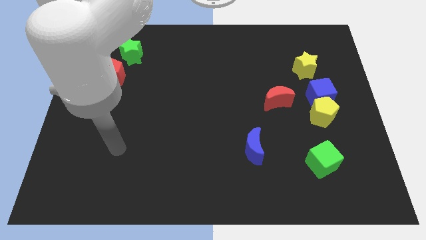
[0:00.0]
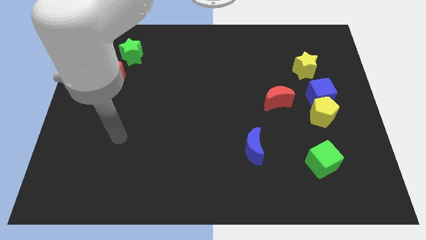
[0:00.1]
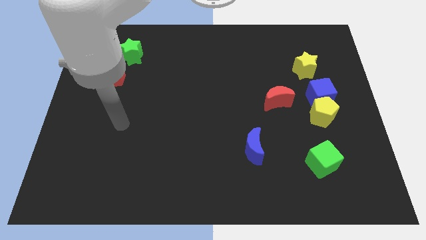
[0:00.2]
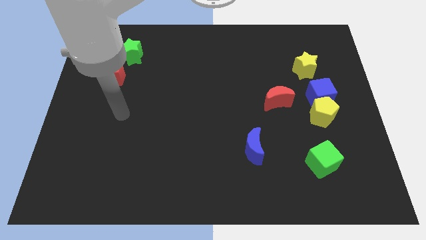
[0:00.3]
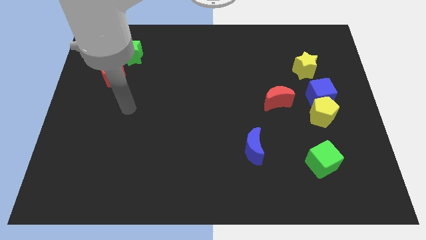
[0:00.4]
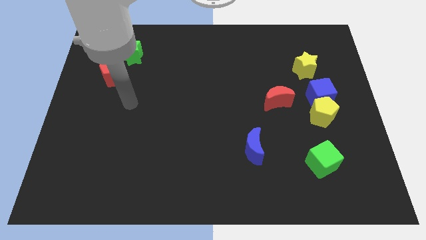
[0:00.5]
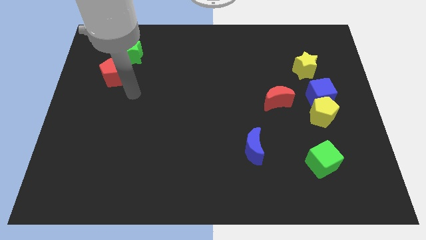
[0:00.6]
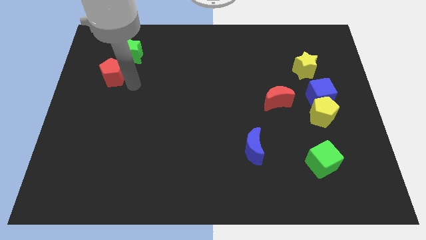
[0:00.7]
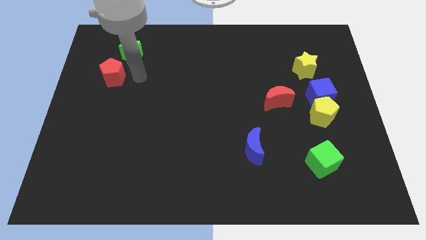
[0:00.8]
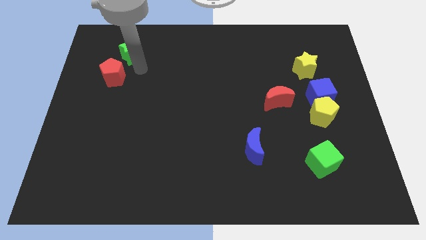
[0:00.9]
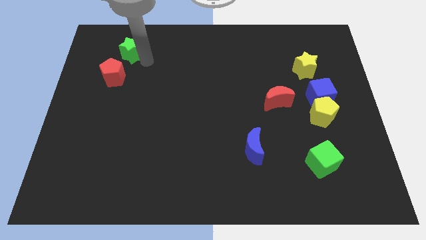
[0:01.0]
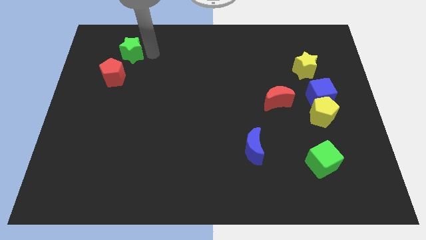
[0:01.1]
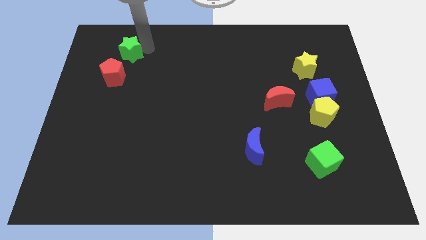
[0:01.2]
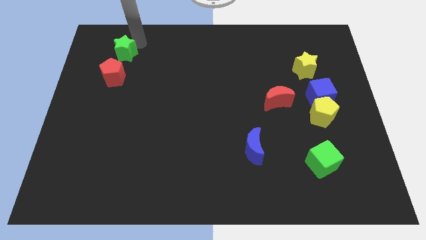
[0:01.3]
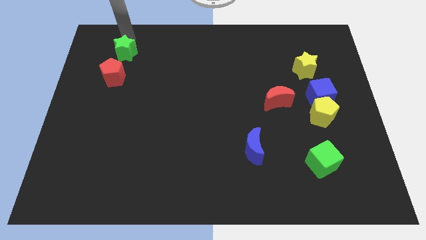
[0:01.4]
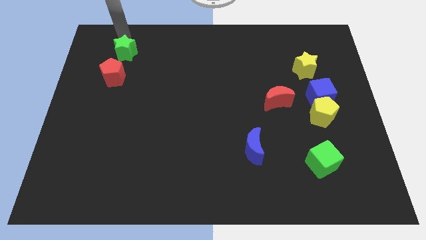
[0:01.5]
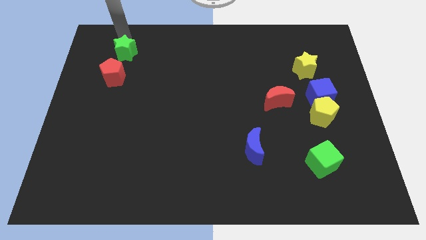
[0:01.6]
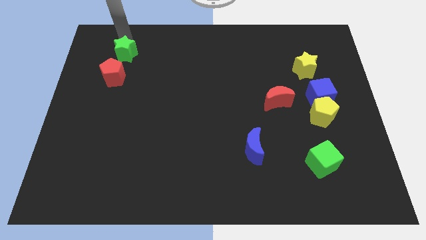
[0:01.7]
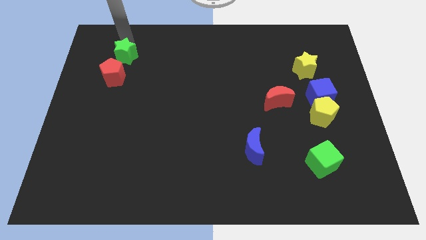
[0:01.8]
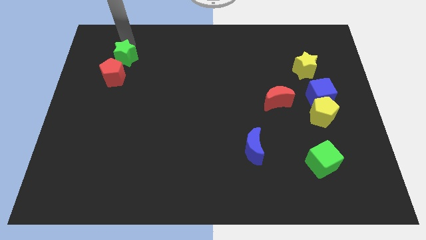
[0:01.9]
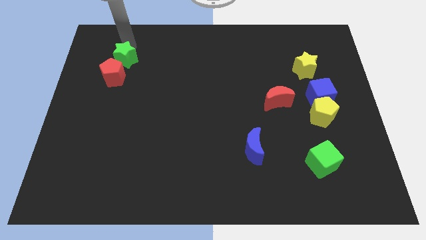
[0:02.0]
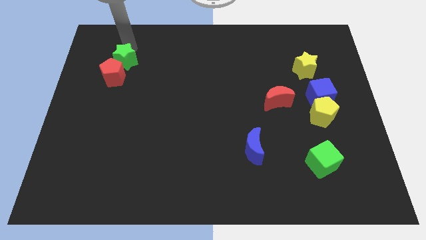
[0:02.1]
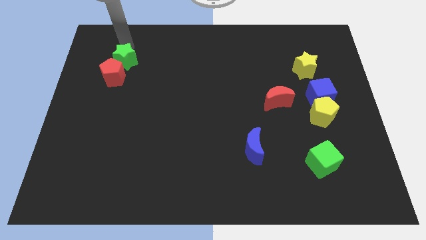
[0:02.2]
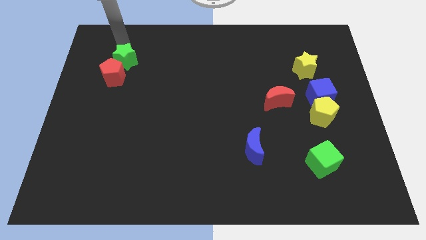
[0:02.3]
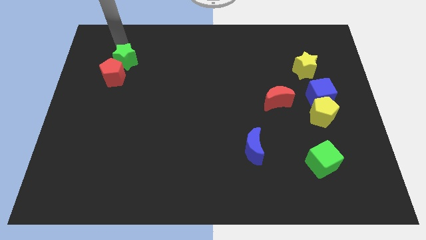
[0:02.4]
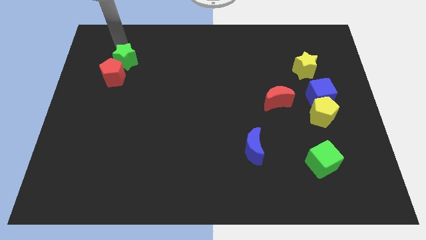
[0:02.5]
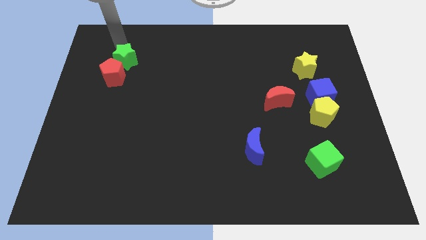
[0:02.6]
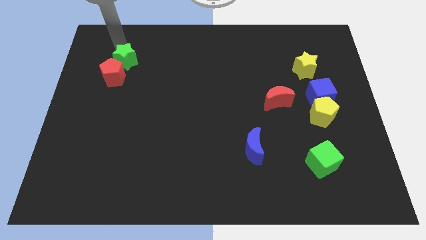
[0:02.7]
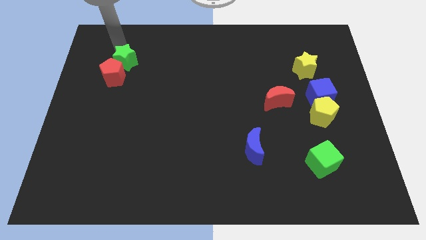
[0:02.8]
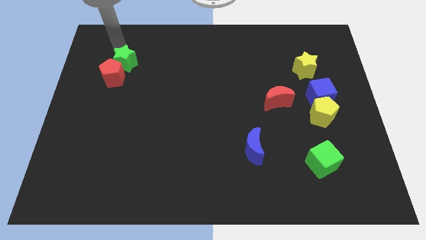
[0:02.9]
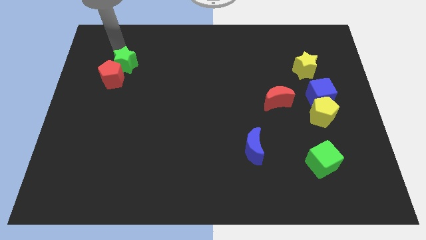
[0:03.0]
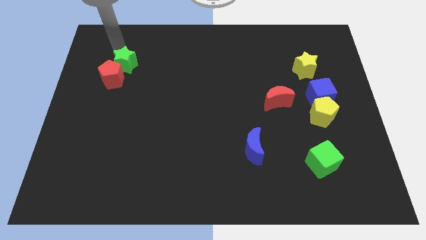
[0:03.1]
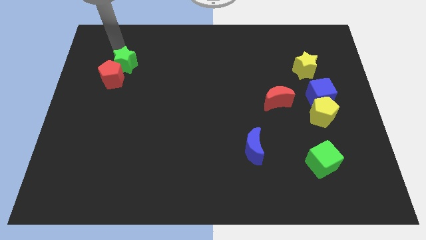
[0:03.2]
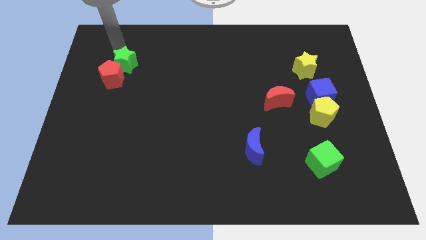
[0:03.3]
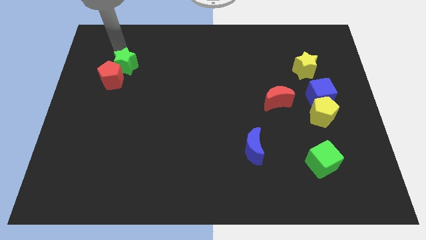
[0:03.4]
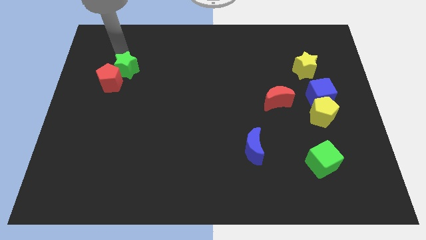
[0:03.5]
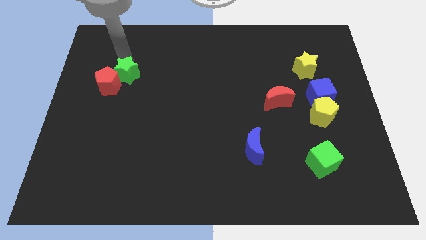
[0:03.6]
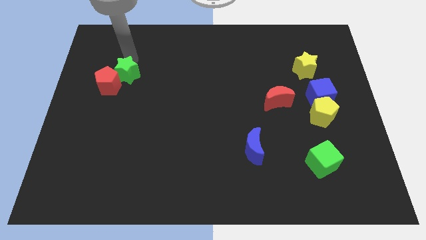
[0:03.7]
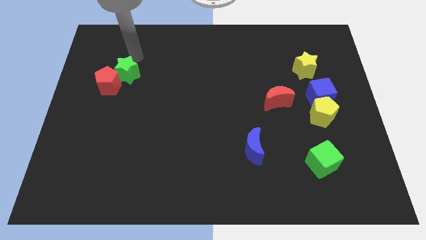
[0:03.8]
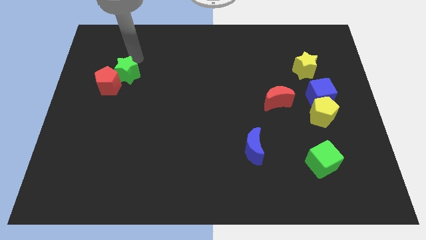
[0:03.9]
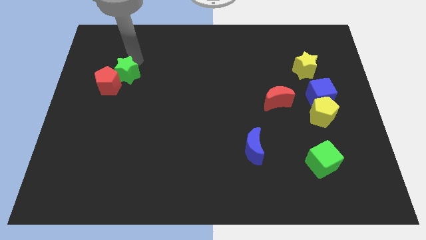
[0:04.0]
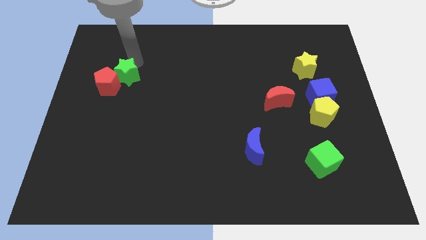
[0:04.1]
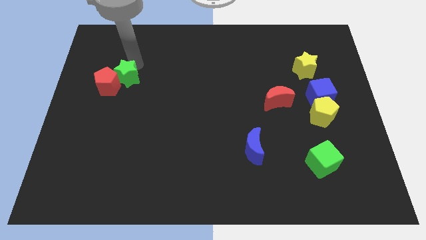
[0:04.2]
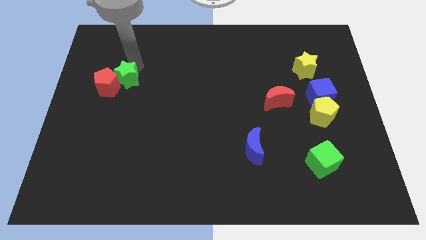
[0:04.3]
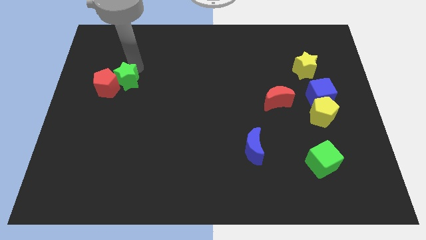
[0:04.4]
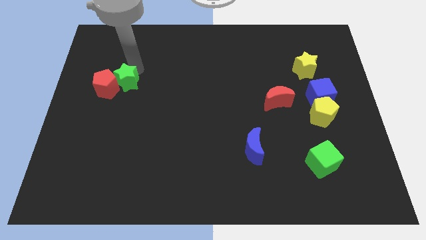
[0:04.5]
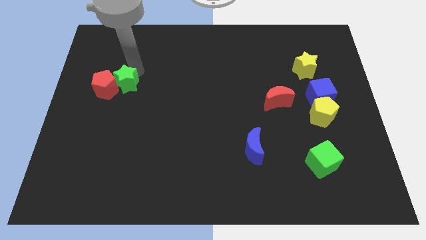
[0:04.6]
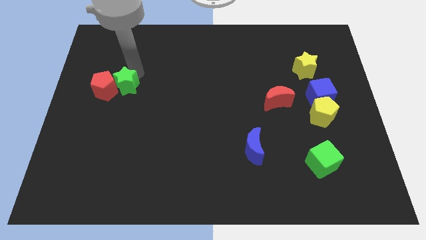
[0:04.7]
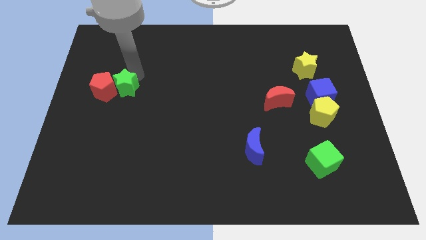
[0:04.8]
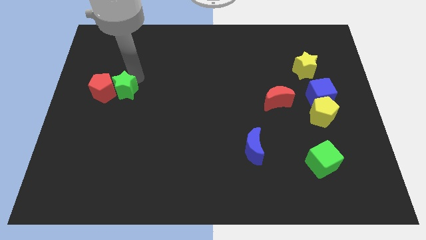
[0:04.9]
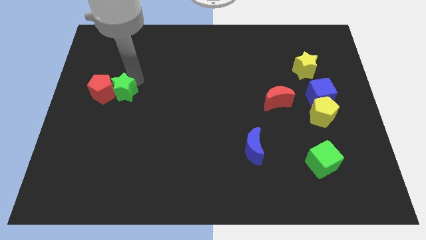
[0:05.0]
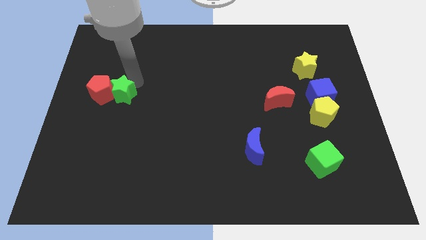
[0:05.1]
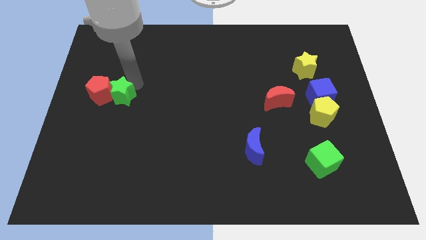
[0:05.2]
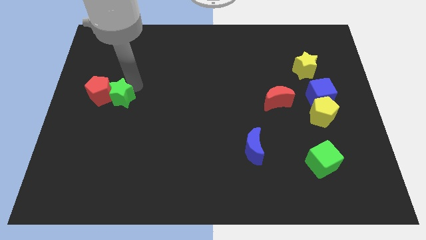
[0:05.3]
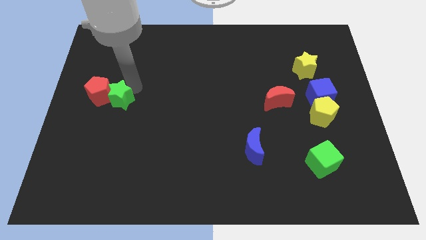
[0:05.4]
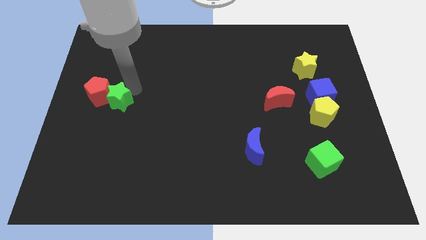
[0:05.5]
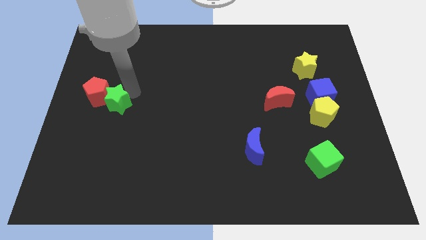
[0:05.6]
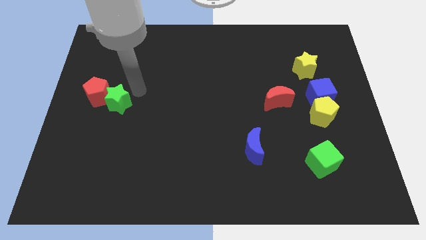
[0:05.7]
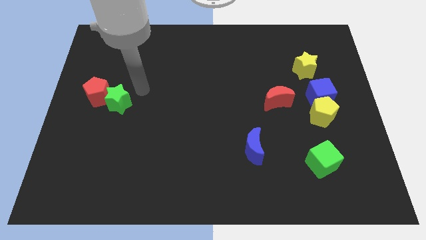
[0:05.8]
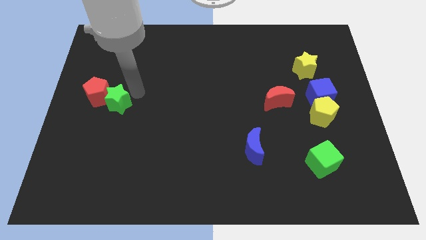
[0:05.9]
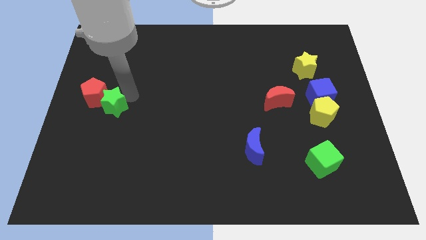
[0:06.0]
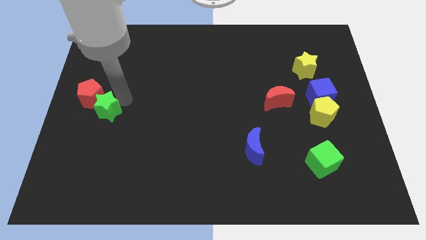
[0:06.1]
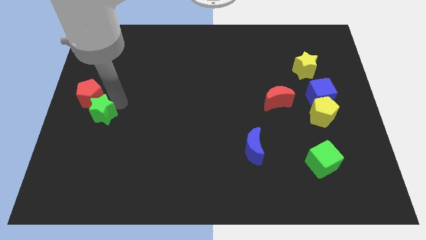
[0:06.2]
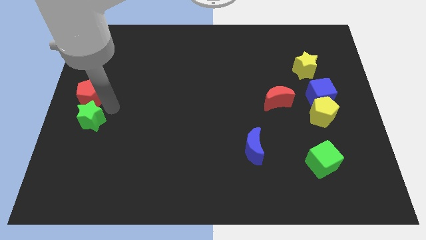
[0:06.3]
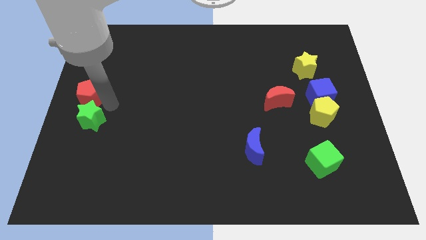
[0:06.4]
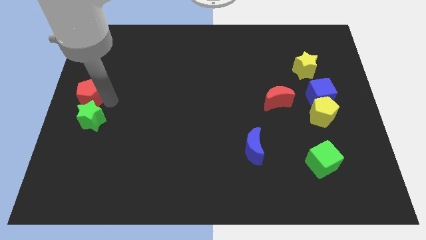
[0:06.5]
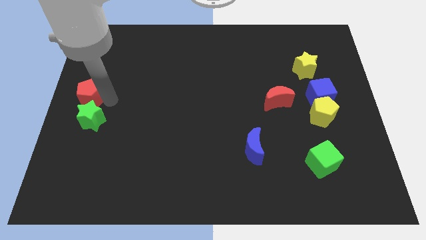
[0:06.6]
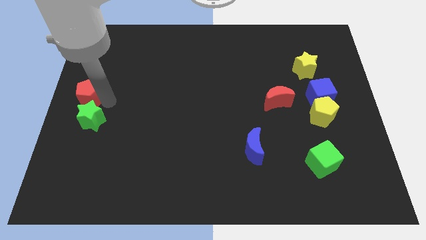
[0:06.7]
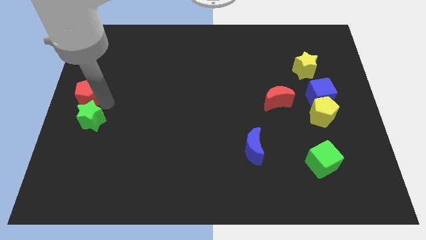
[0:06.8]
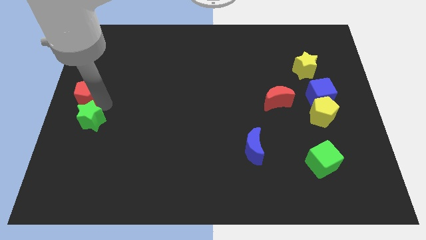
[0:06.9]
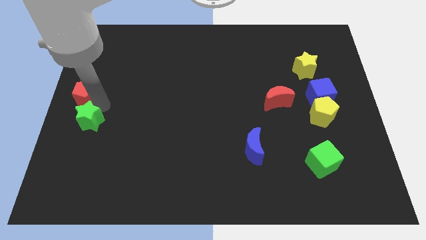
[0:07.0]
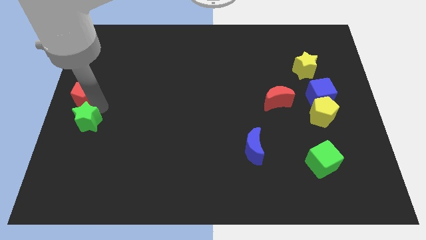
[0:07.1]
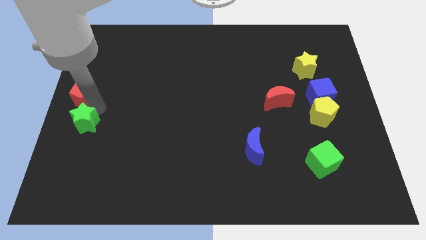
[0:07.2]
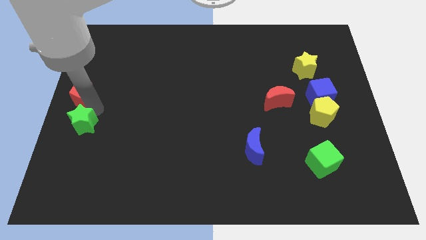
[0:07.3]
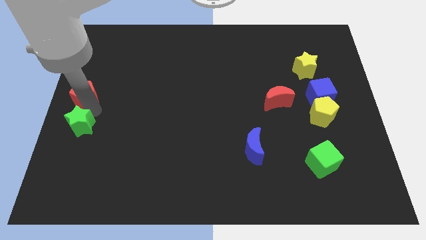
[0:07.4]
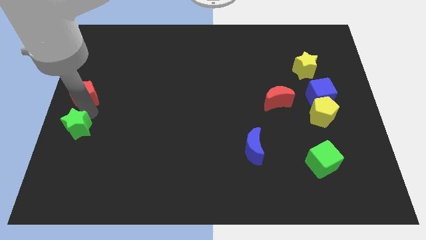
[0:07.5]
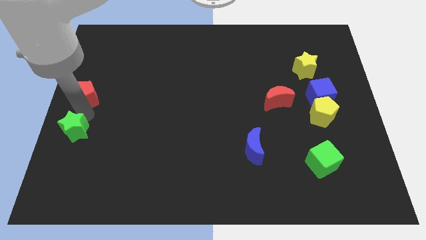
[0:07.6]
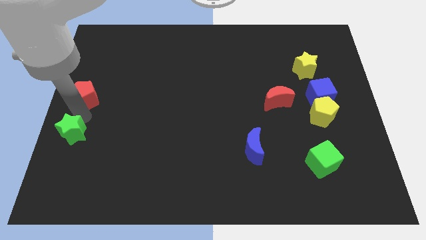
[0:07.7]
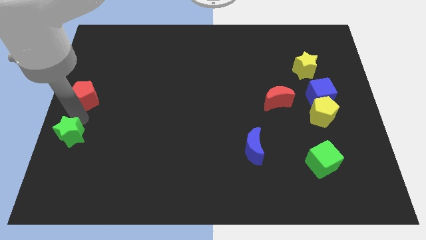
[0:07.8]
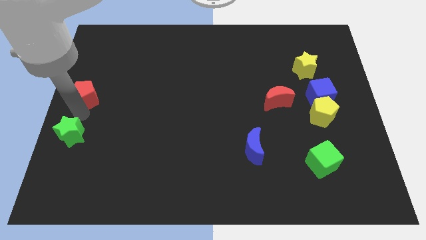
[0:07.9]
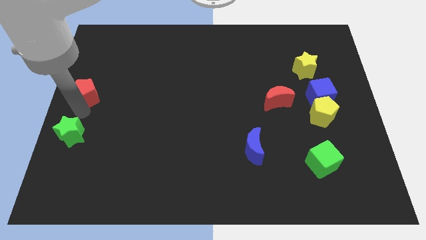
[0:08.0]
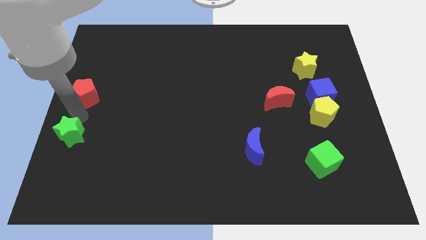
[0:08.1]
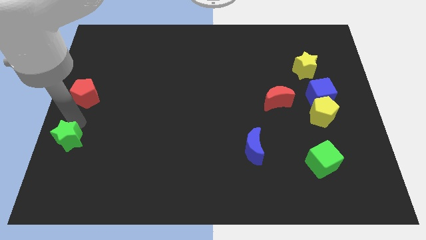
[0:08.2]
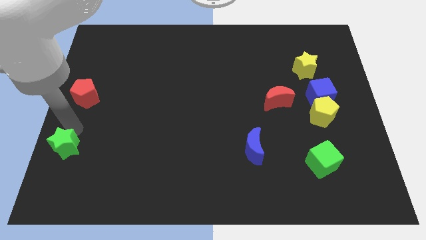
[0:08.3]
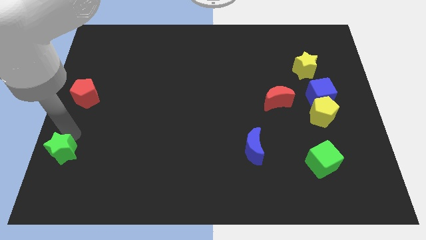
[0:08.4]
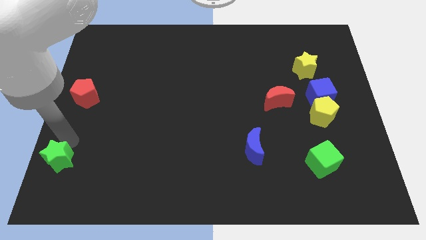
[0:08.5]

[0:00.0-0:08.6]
push the green star to the bottom left
